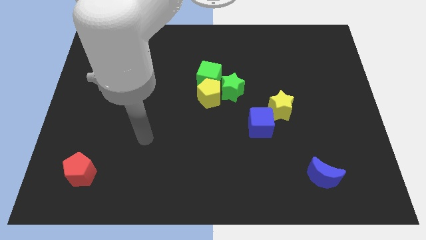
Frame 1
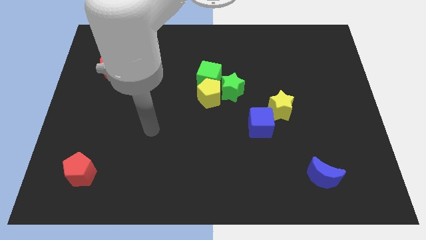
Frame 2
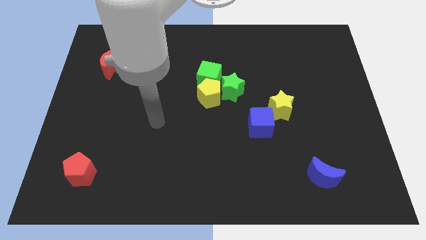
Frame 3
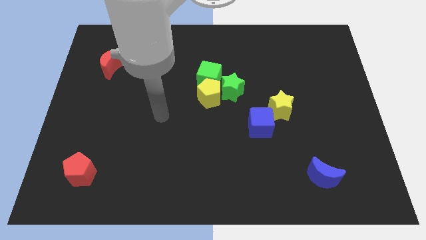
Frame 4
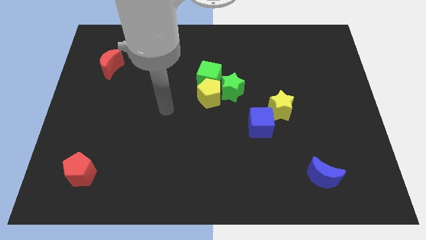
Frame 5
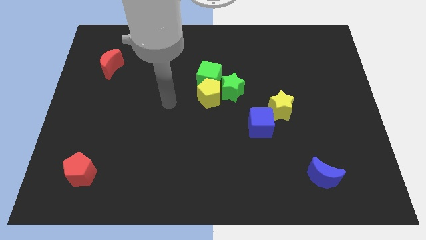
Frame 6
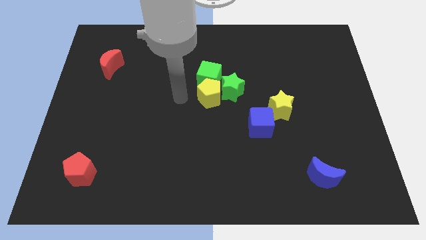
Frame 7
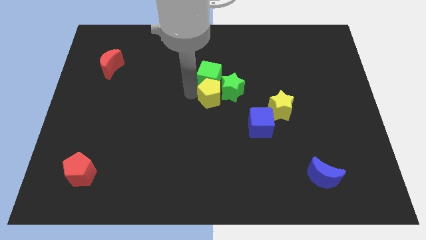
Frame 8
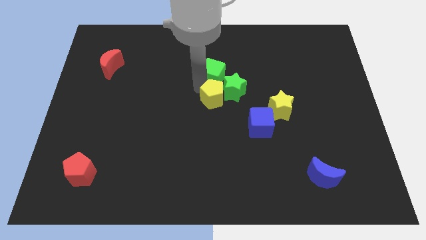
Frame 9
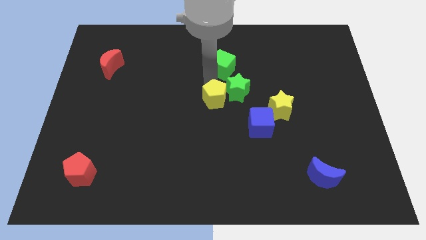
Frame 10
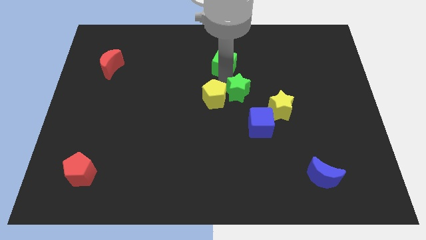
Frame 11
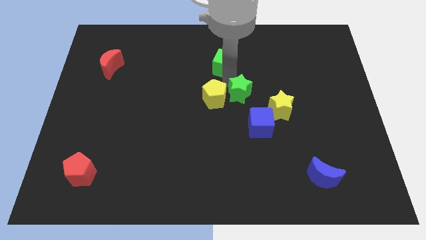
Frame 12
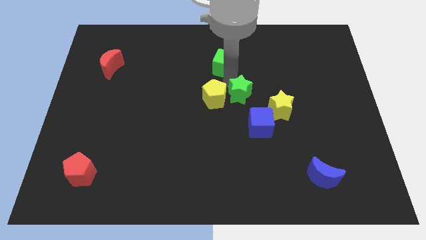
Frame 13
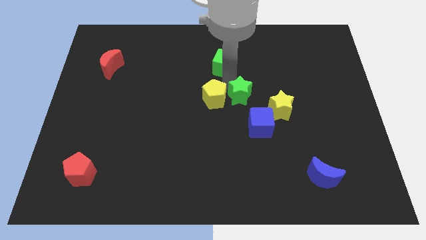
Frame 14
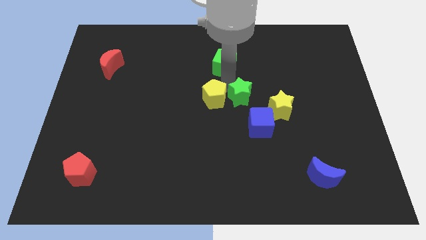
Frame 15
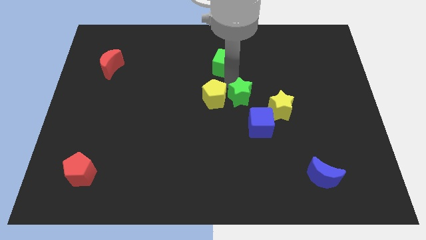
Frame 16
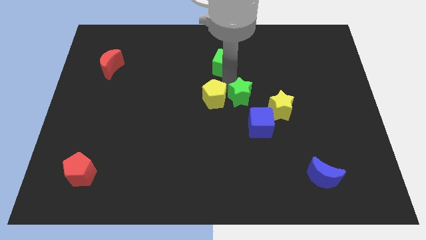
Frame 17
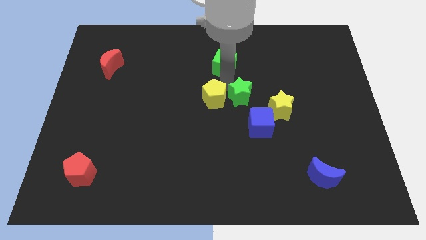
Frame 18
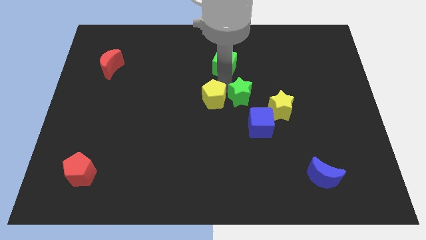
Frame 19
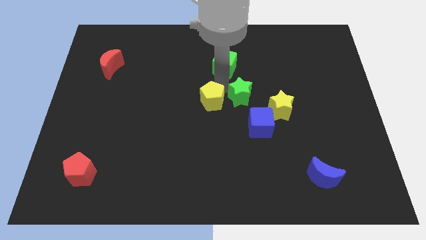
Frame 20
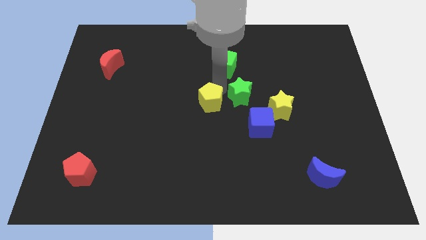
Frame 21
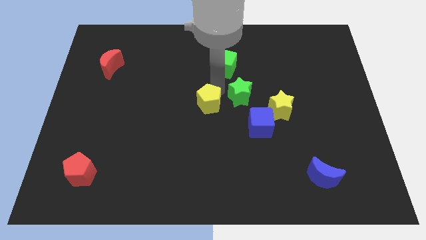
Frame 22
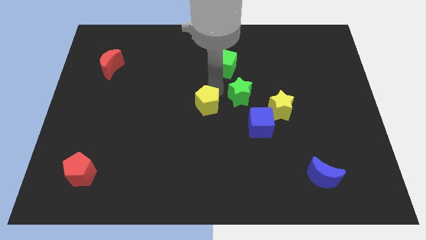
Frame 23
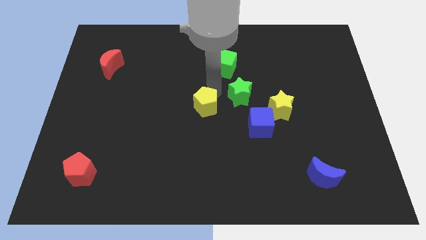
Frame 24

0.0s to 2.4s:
separate the yellow pentagon from the green star and green cube

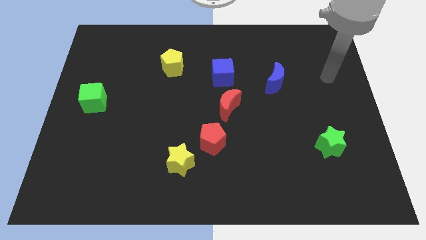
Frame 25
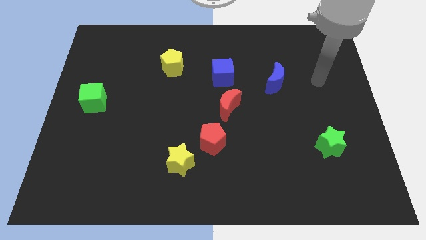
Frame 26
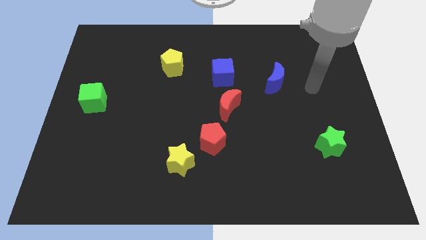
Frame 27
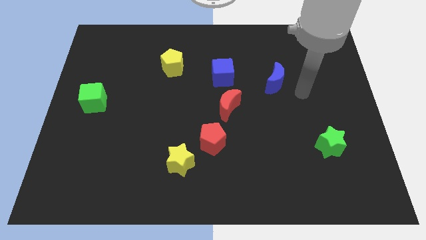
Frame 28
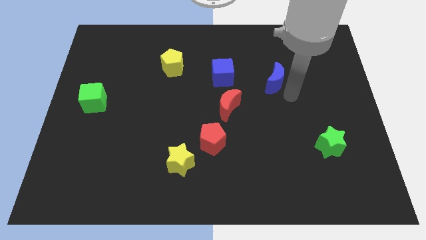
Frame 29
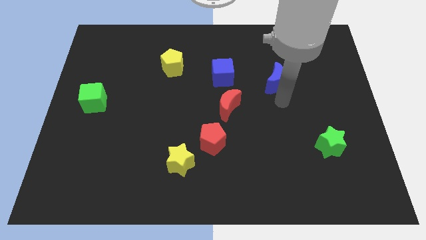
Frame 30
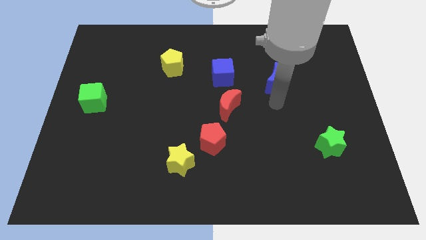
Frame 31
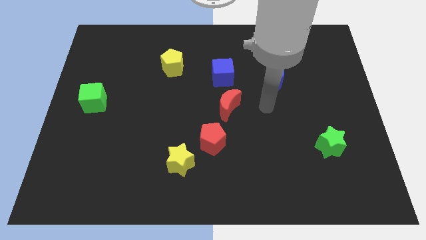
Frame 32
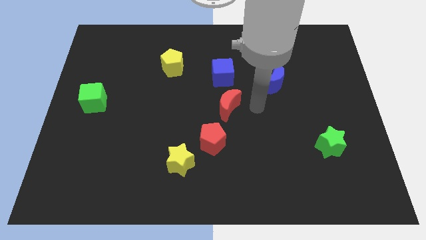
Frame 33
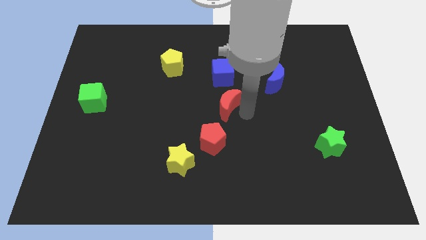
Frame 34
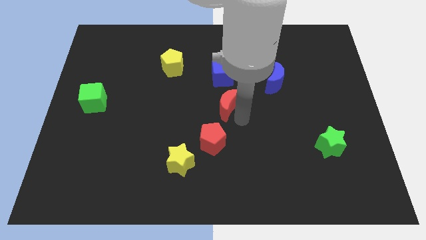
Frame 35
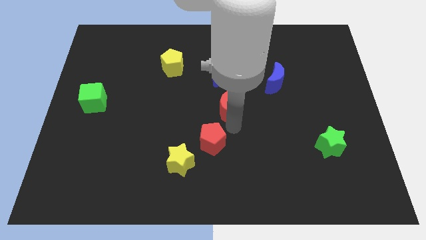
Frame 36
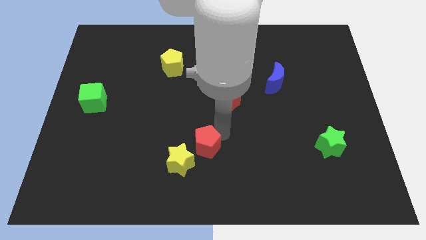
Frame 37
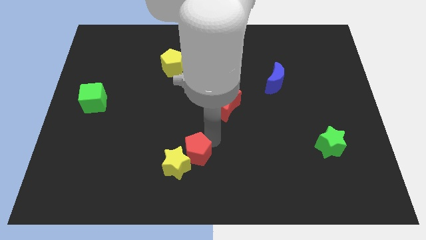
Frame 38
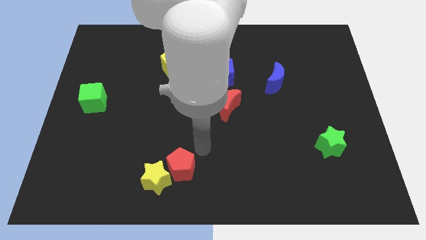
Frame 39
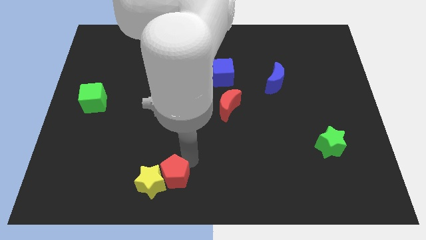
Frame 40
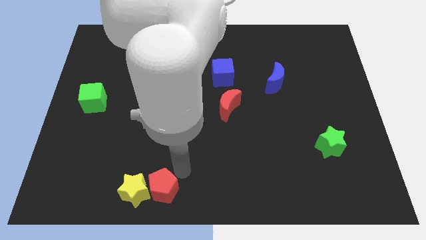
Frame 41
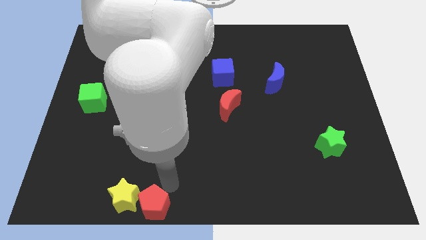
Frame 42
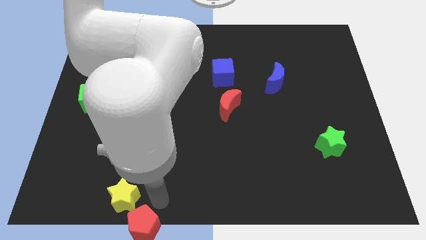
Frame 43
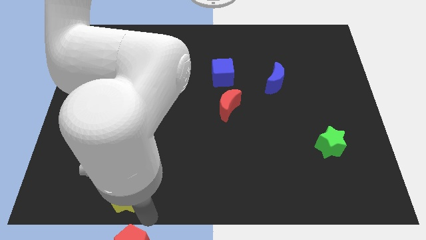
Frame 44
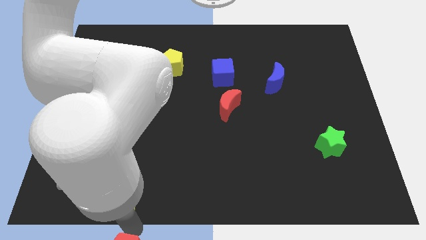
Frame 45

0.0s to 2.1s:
move the yellow star away from the red pentagon

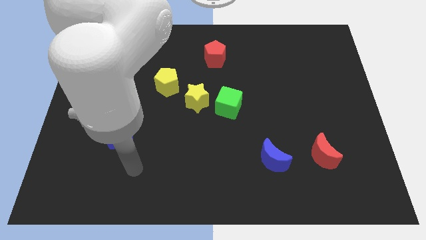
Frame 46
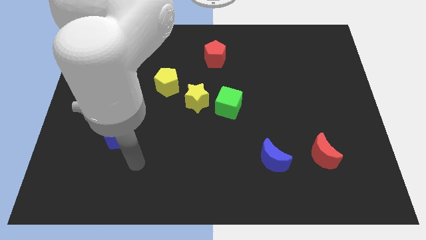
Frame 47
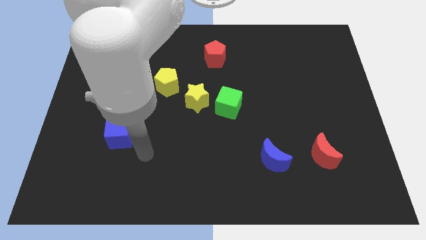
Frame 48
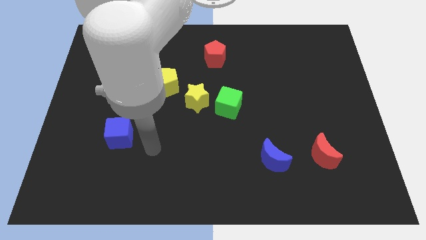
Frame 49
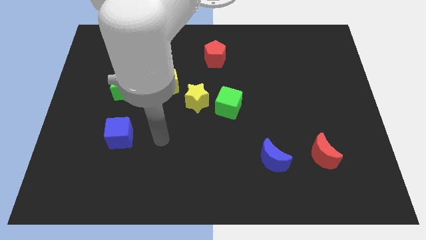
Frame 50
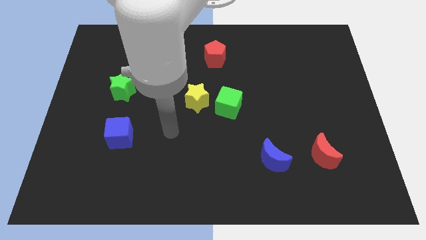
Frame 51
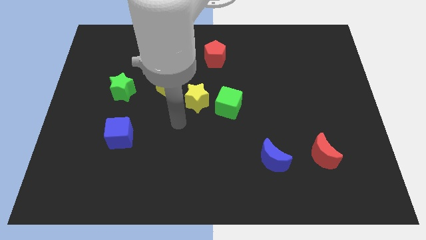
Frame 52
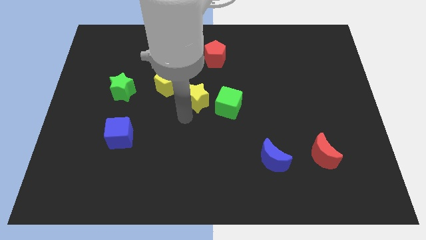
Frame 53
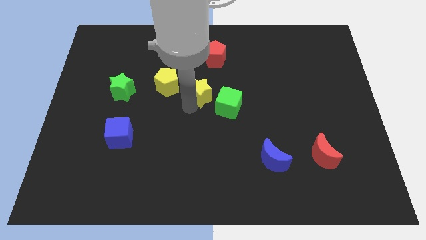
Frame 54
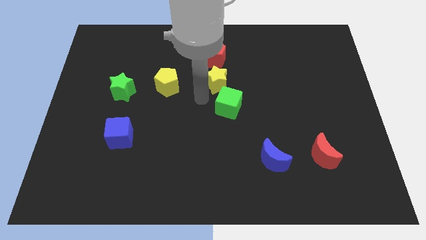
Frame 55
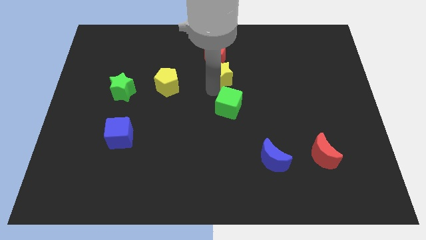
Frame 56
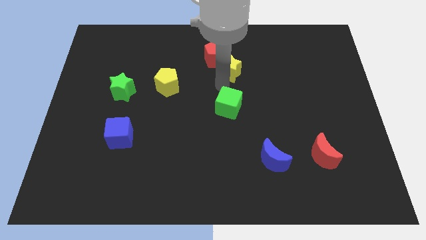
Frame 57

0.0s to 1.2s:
separate the green cube from the yellow star

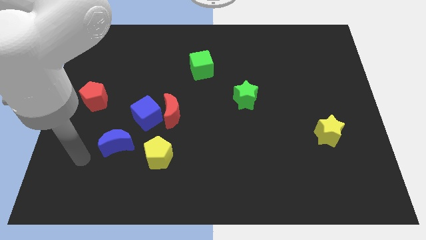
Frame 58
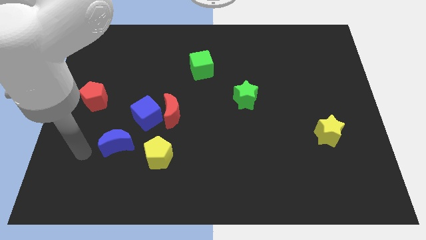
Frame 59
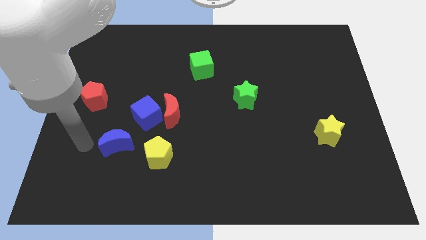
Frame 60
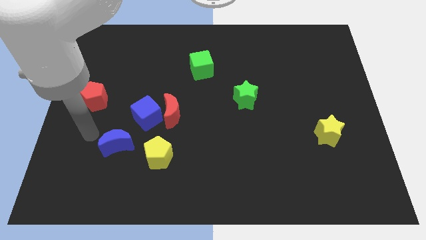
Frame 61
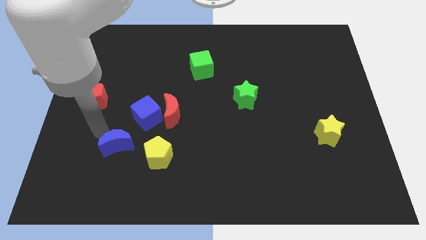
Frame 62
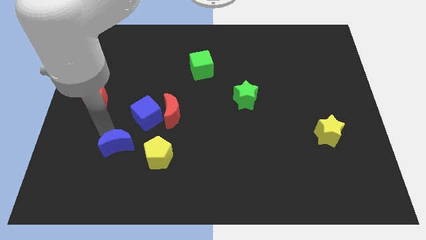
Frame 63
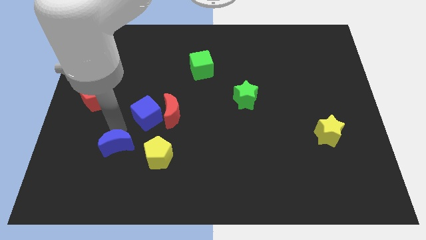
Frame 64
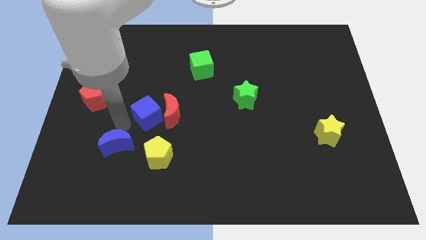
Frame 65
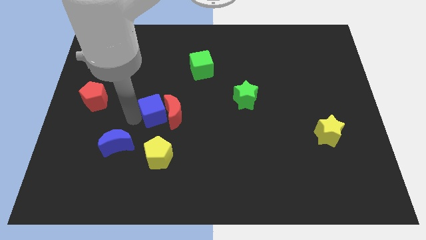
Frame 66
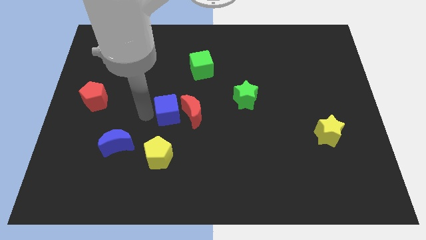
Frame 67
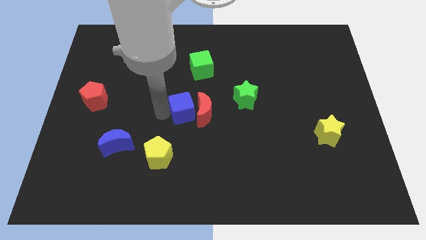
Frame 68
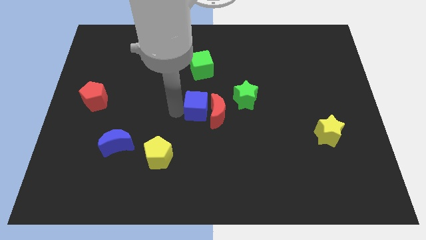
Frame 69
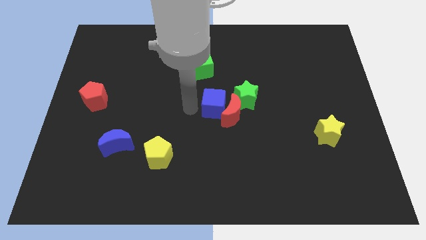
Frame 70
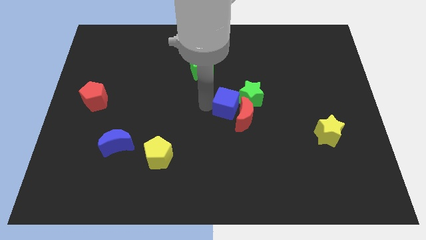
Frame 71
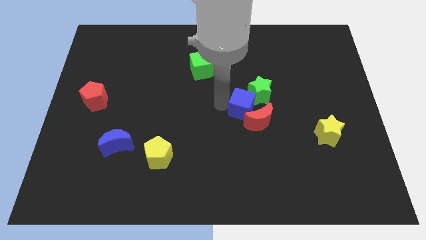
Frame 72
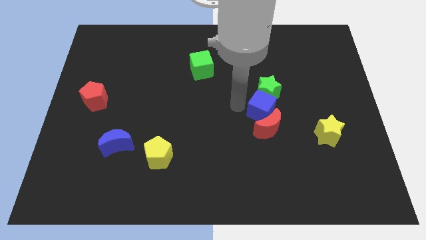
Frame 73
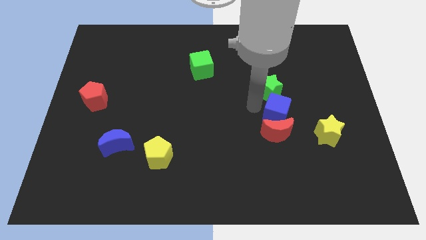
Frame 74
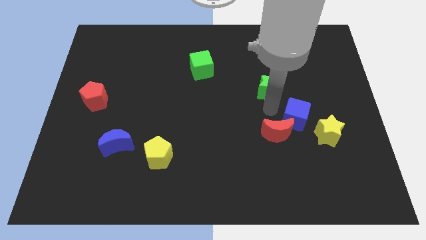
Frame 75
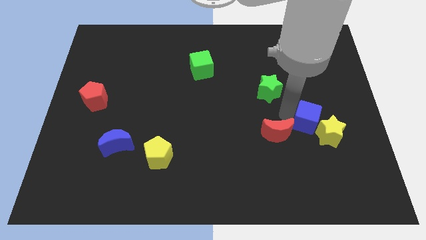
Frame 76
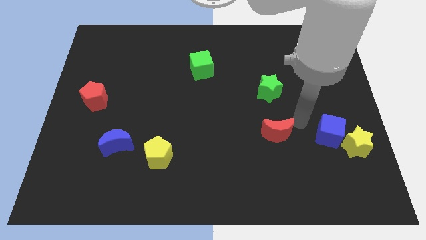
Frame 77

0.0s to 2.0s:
pull the red moon apart from the blue cube

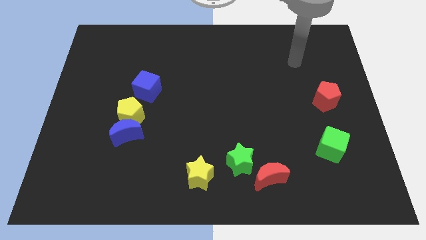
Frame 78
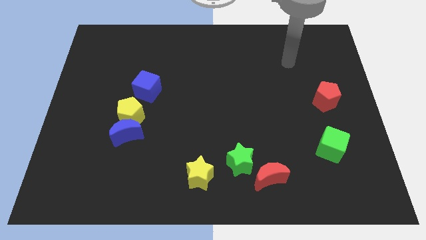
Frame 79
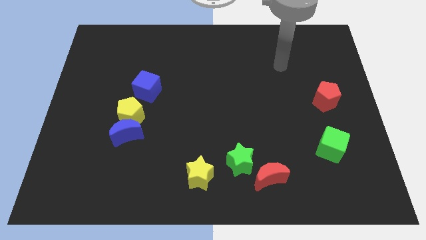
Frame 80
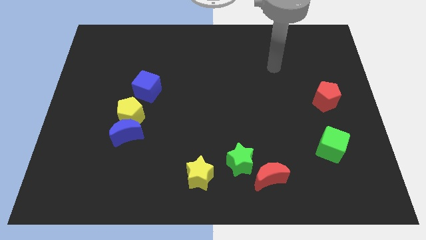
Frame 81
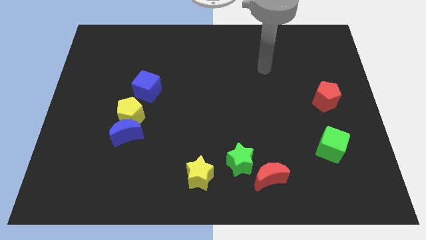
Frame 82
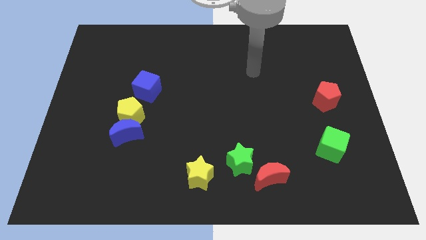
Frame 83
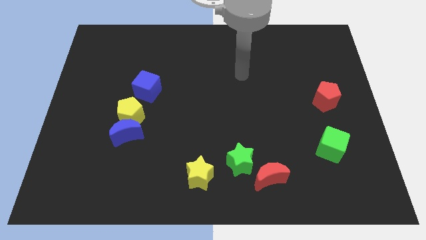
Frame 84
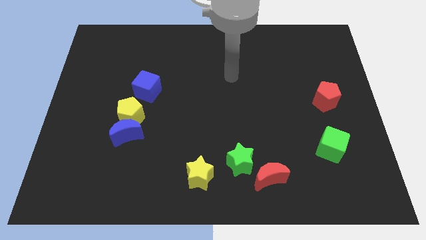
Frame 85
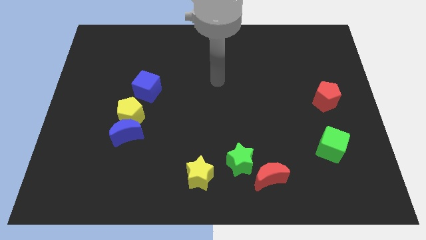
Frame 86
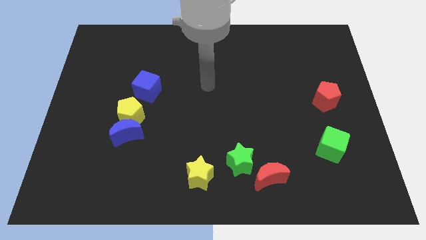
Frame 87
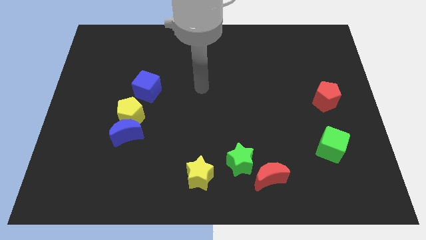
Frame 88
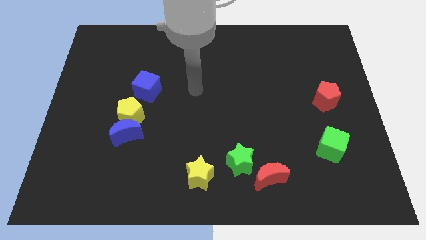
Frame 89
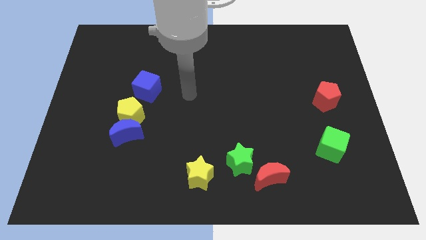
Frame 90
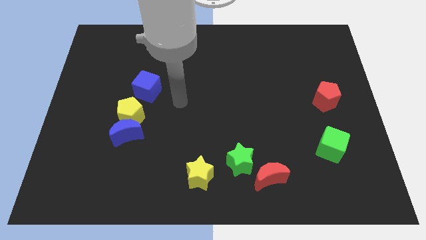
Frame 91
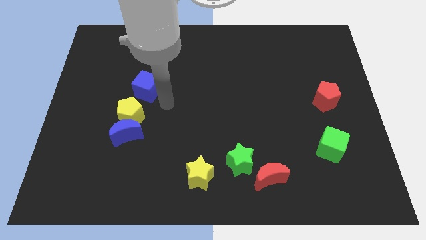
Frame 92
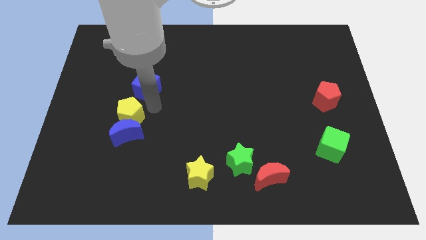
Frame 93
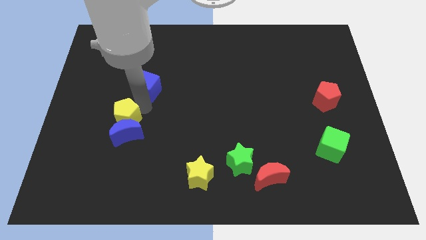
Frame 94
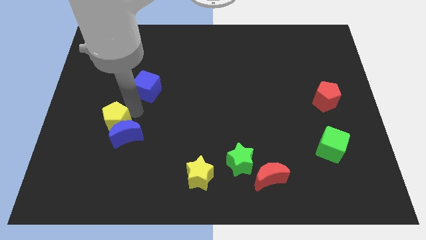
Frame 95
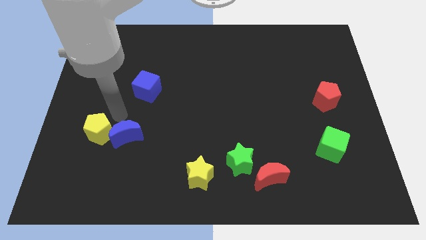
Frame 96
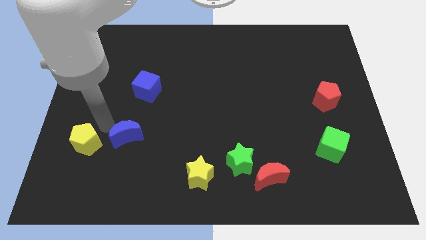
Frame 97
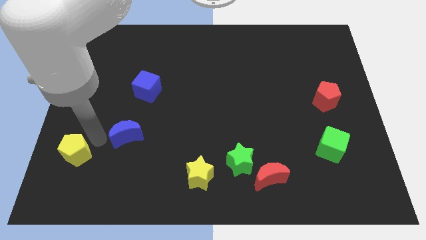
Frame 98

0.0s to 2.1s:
separate the blue moon from the yellow pentagon
